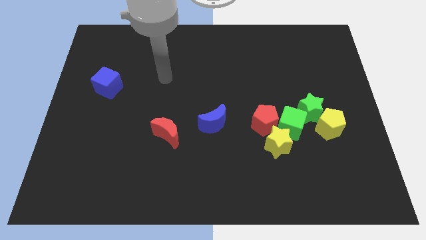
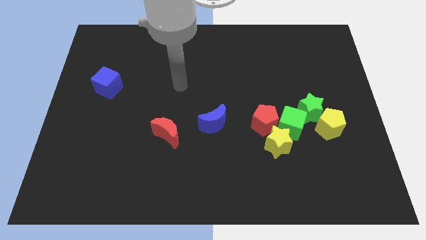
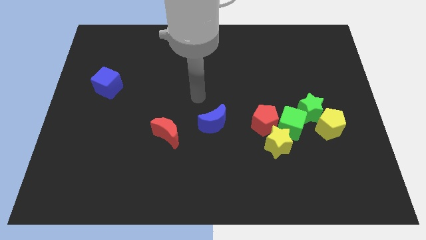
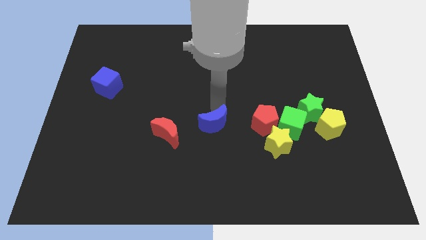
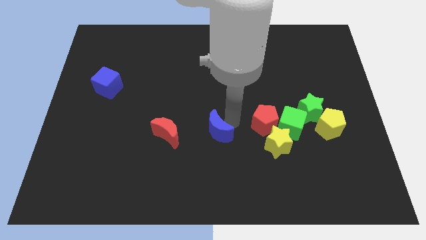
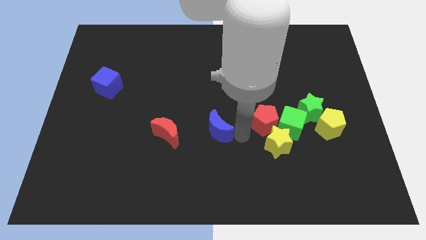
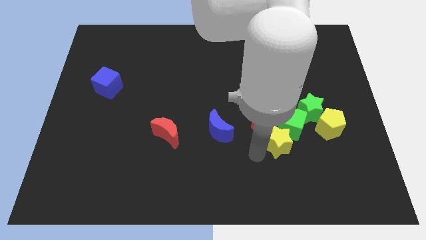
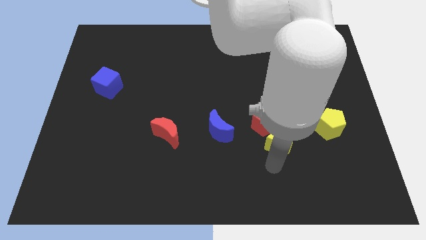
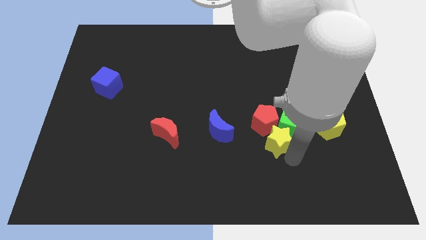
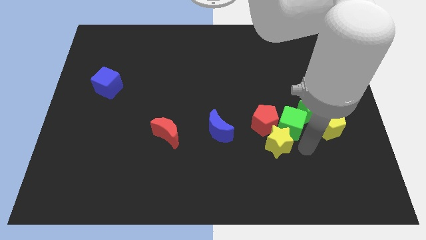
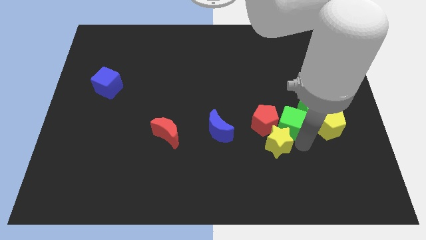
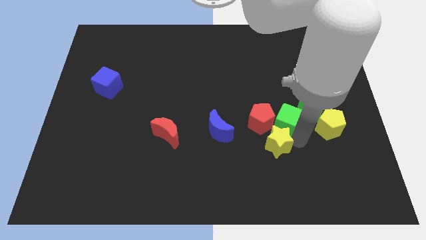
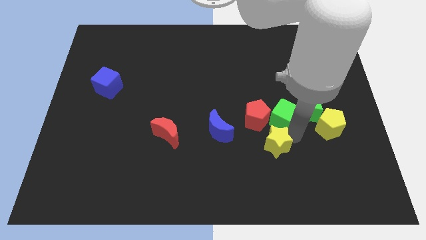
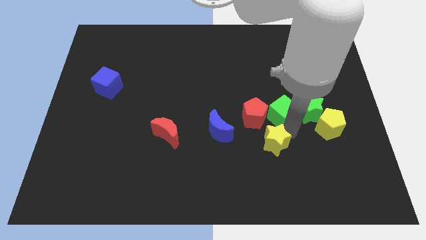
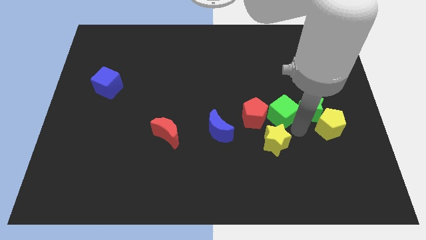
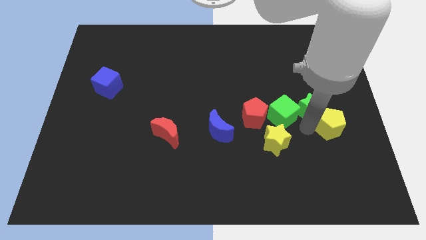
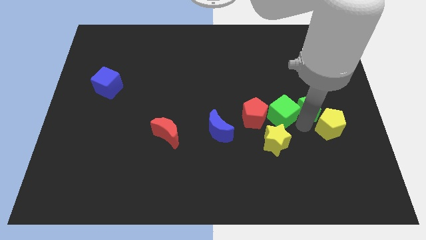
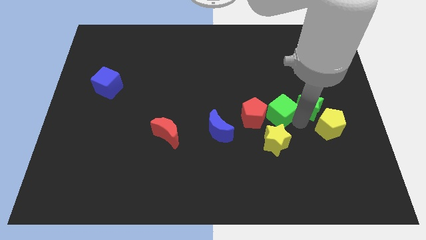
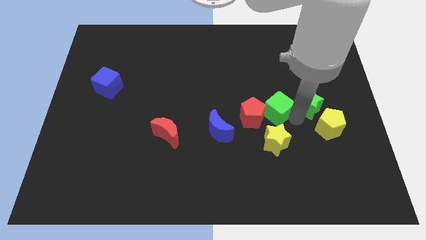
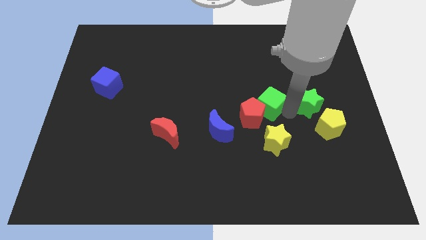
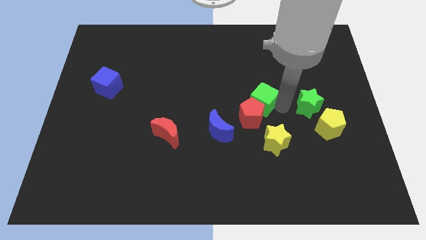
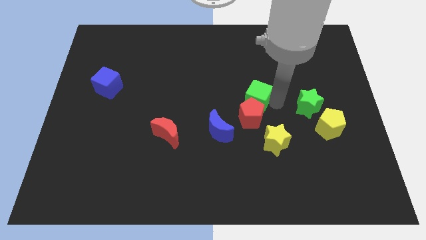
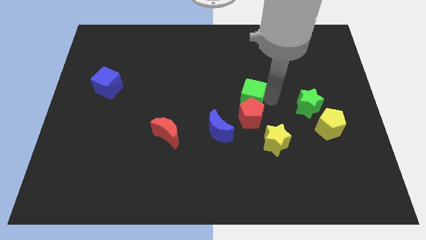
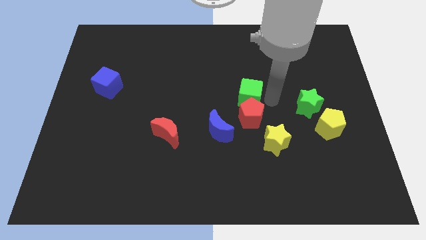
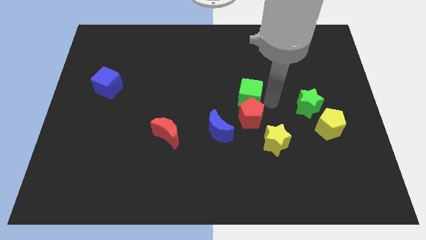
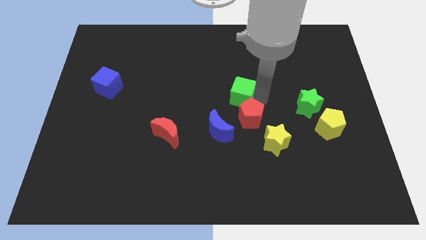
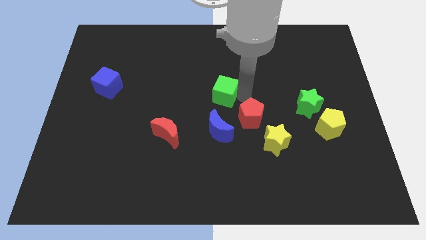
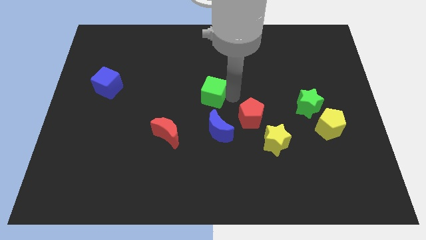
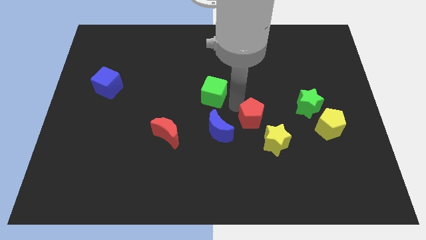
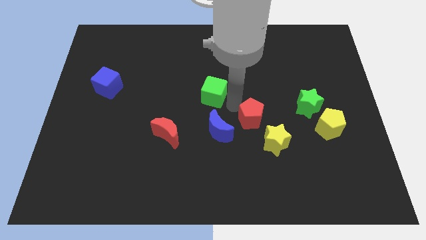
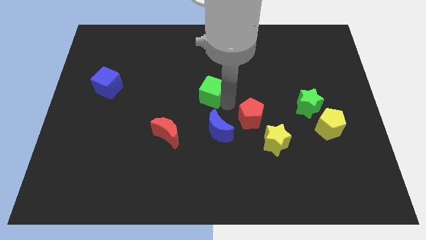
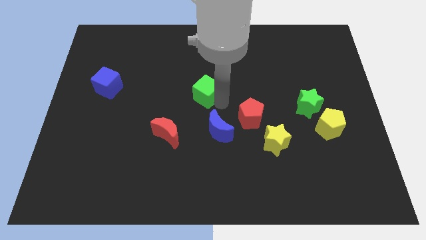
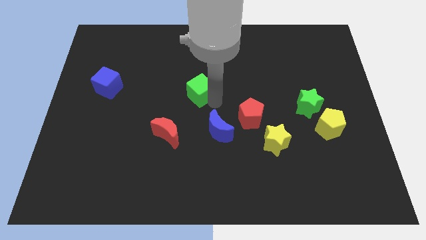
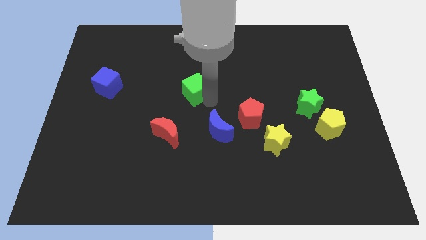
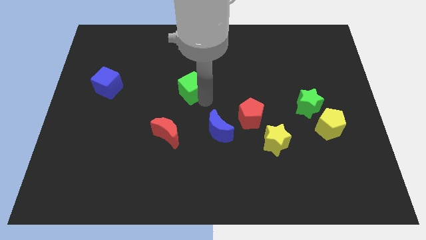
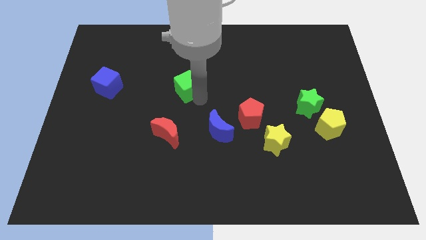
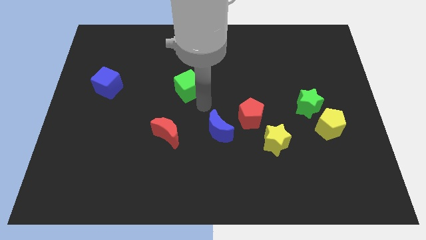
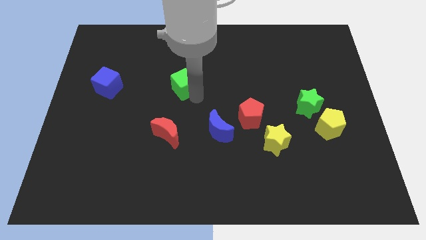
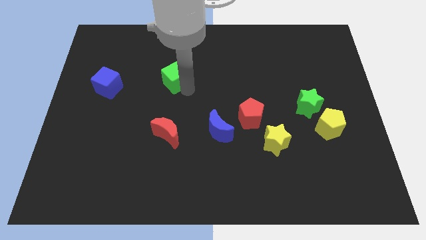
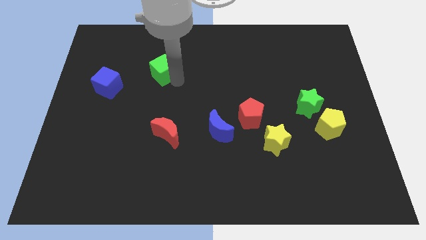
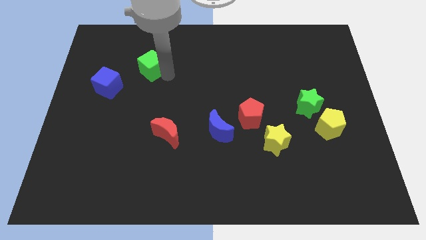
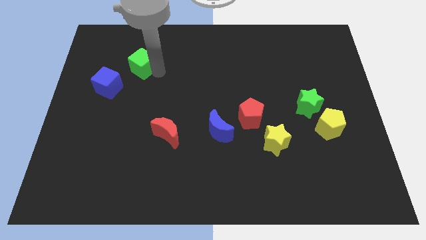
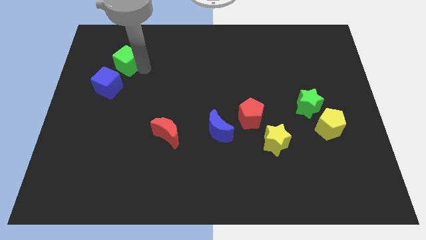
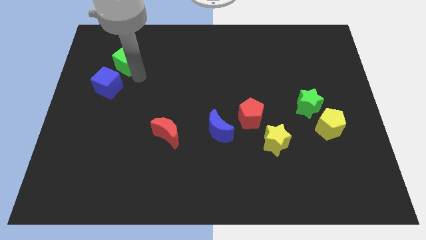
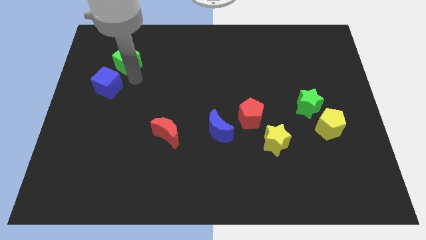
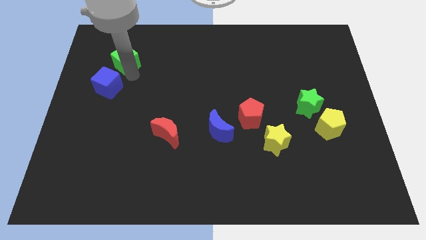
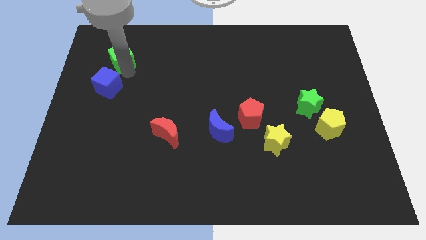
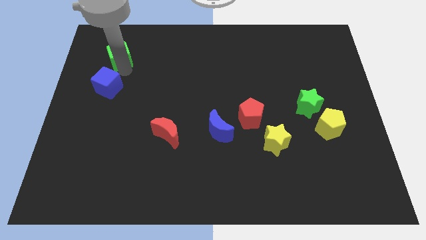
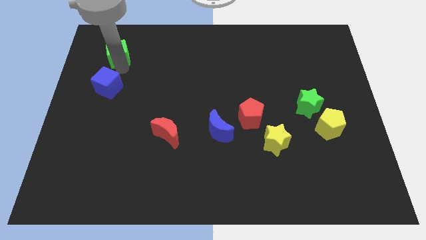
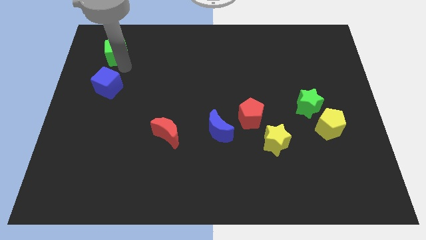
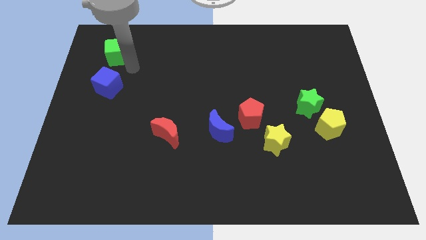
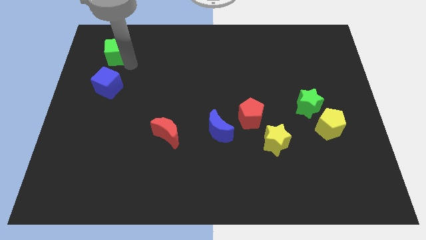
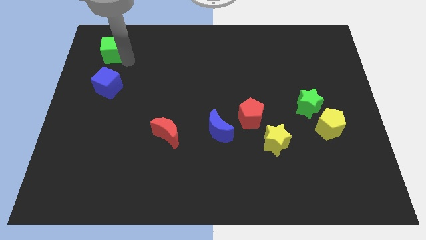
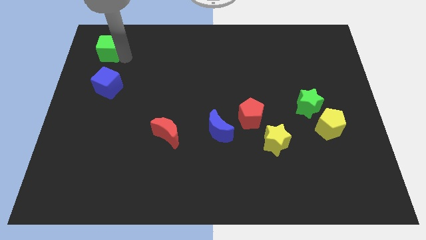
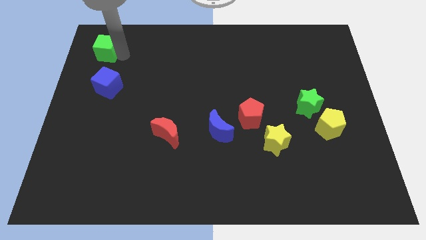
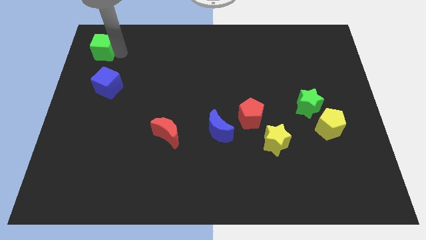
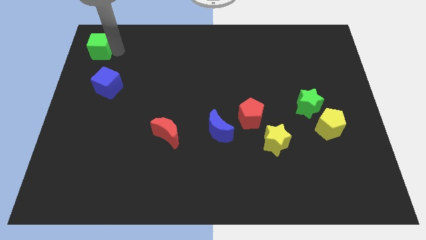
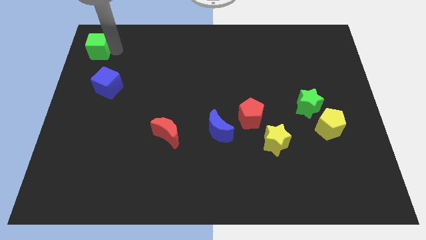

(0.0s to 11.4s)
move the green cube to the top left of the board
